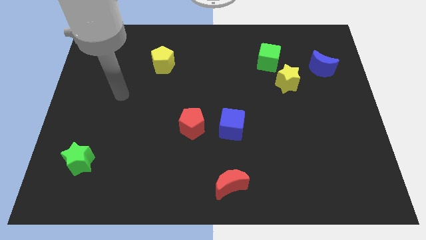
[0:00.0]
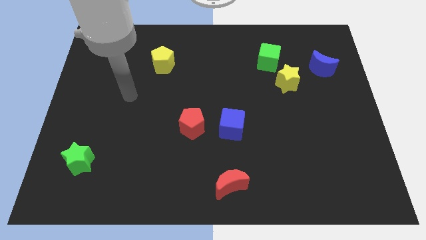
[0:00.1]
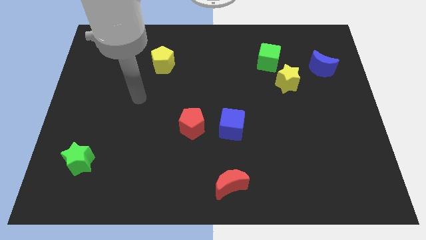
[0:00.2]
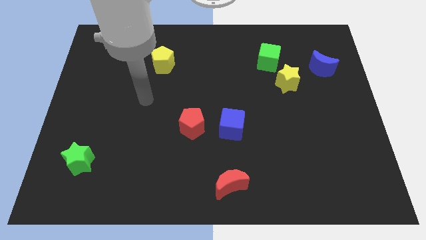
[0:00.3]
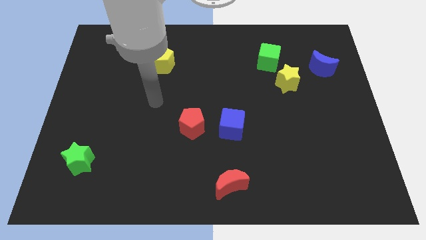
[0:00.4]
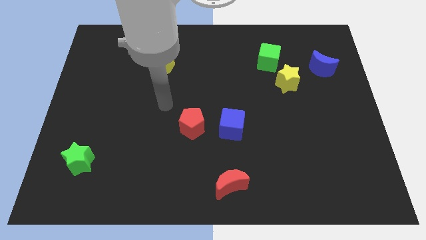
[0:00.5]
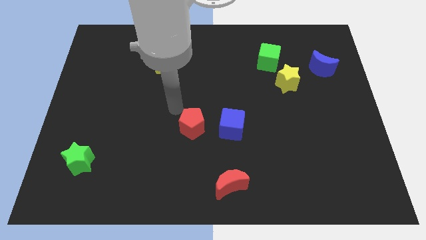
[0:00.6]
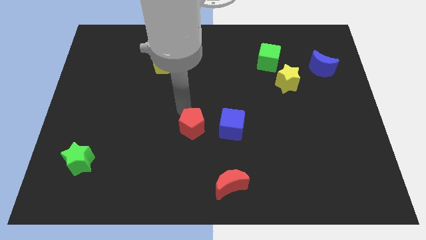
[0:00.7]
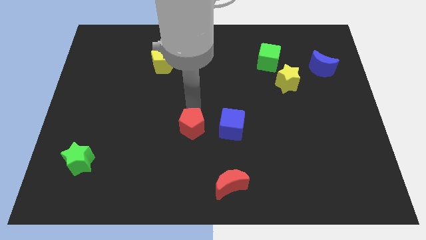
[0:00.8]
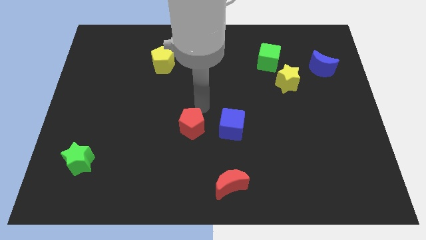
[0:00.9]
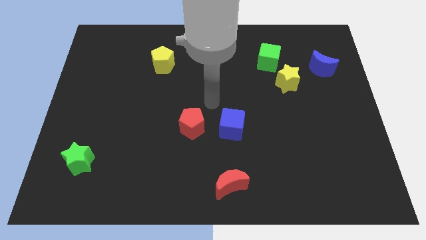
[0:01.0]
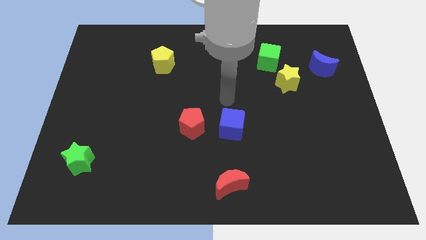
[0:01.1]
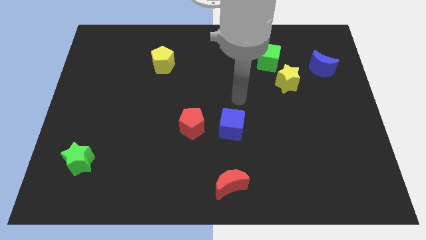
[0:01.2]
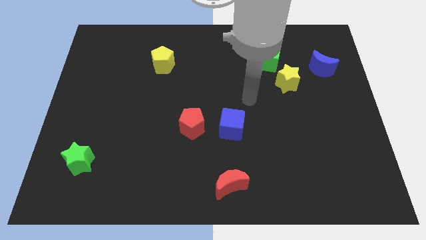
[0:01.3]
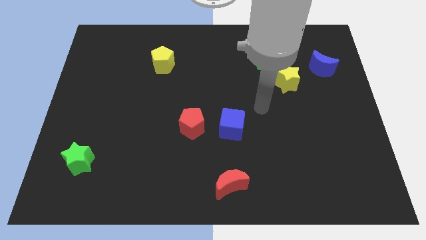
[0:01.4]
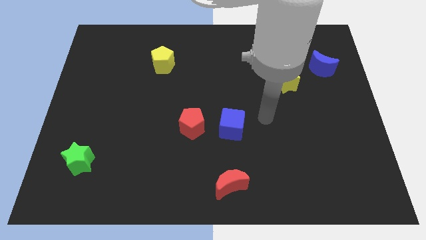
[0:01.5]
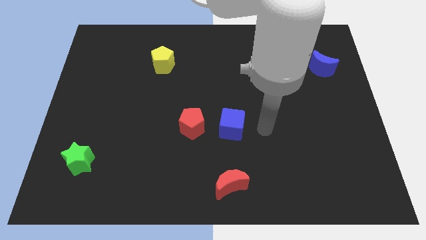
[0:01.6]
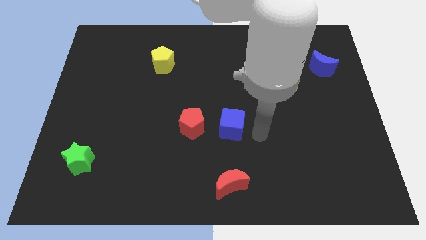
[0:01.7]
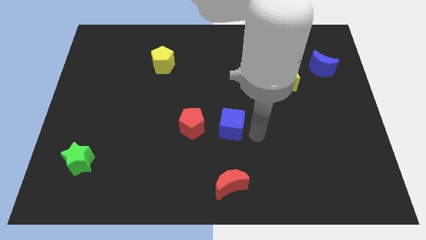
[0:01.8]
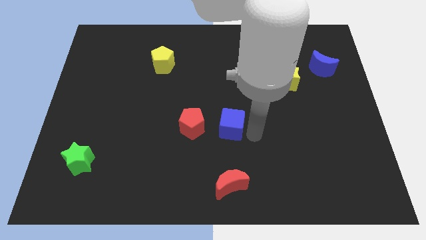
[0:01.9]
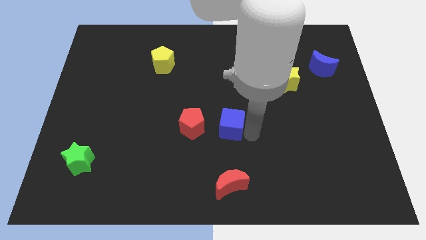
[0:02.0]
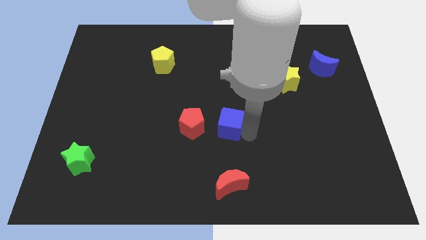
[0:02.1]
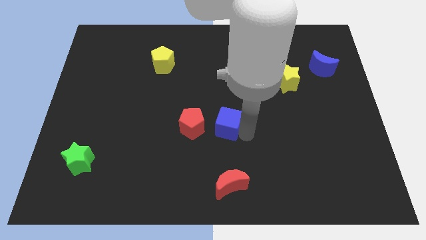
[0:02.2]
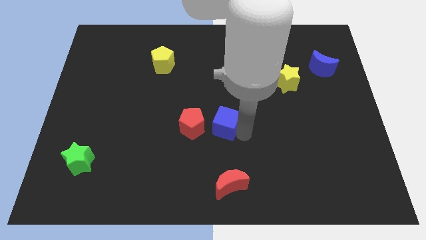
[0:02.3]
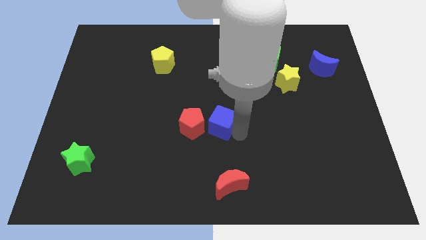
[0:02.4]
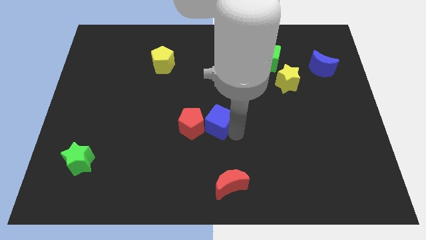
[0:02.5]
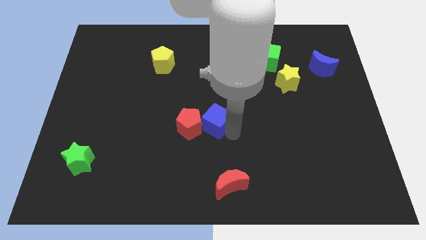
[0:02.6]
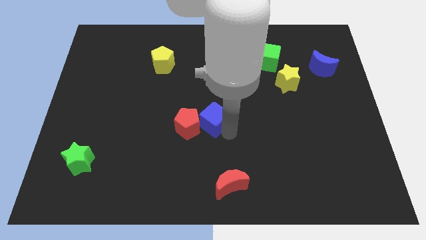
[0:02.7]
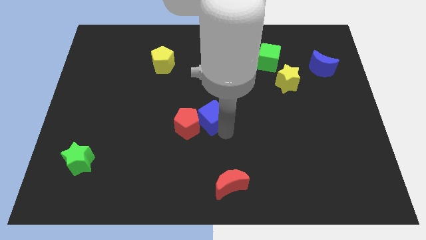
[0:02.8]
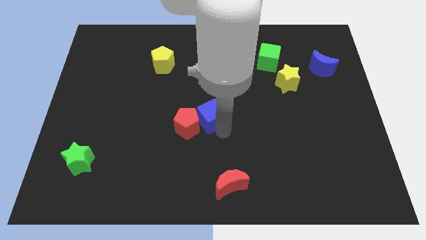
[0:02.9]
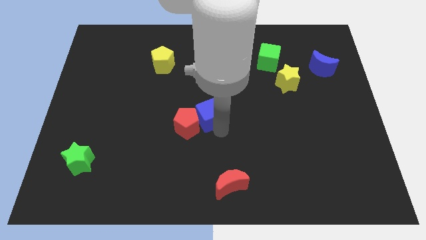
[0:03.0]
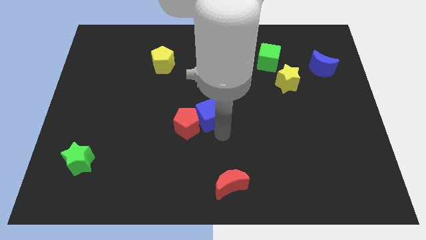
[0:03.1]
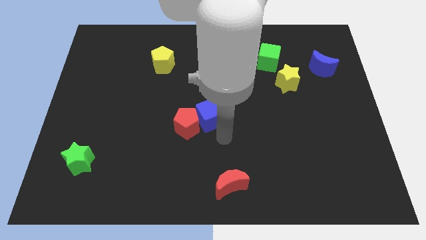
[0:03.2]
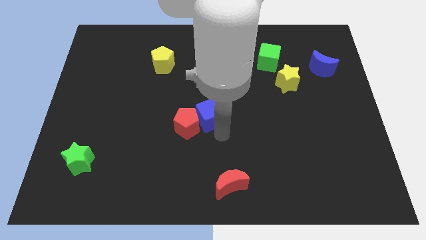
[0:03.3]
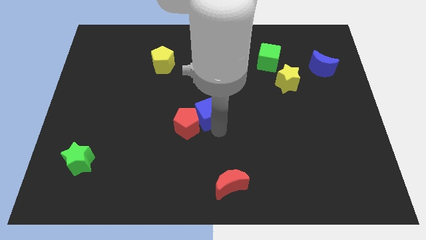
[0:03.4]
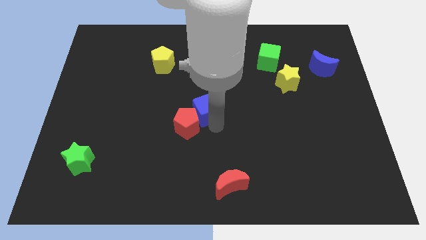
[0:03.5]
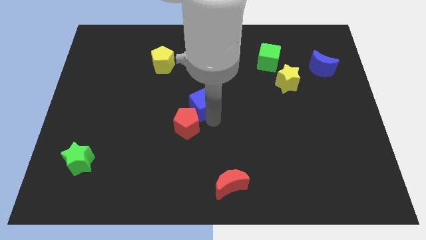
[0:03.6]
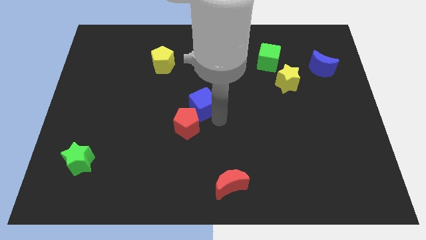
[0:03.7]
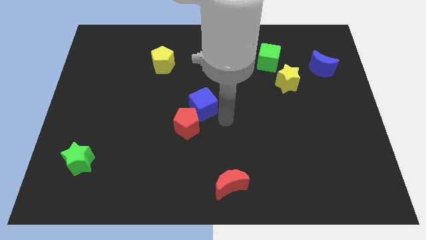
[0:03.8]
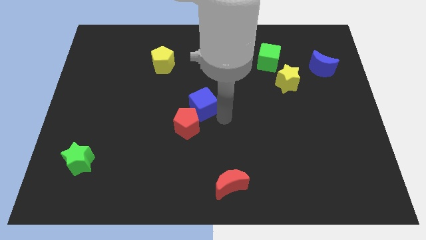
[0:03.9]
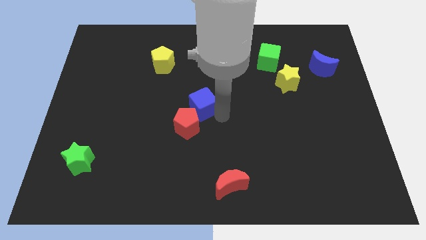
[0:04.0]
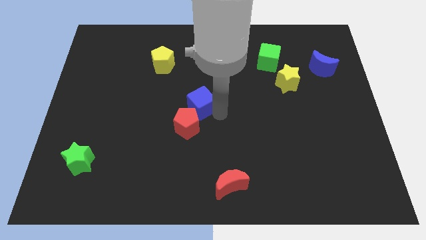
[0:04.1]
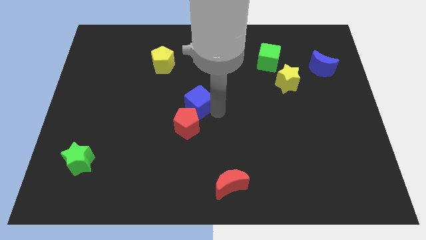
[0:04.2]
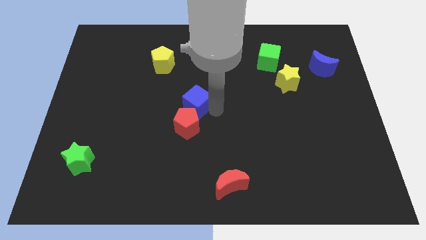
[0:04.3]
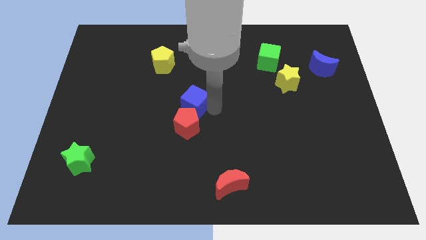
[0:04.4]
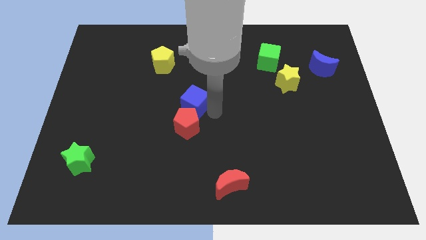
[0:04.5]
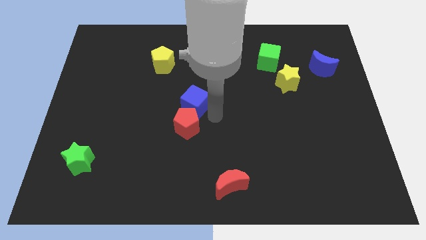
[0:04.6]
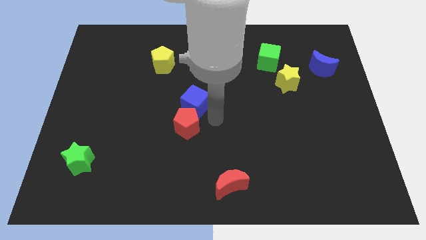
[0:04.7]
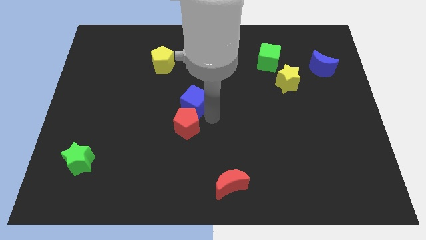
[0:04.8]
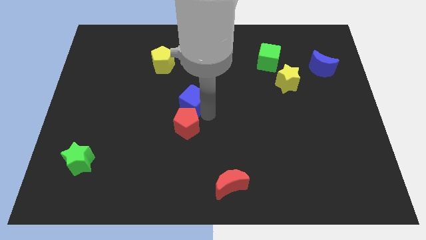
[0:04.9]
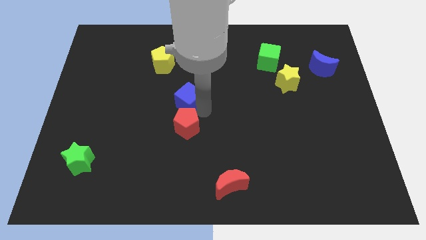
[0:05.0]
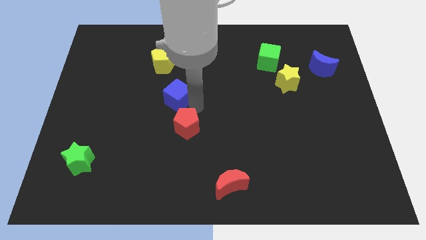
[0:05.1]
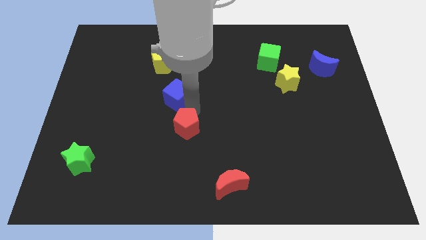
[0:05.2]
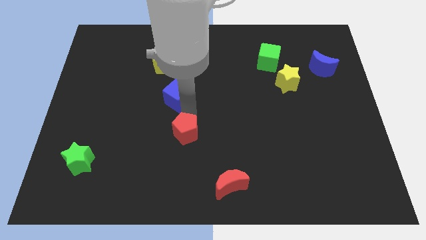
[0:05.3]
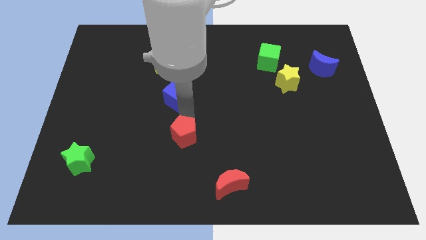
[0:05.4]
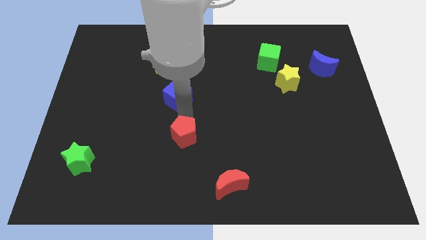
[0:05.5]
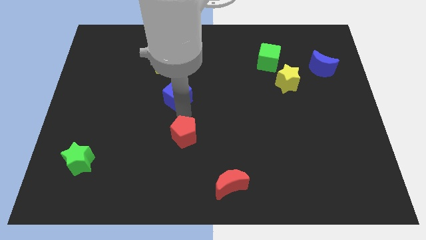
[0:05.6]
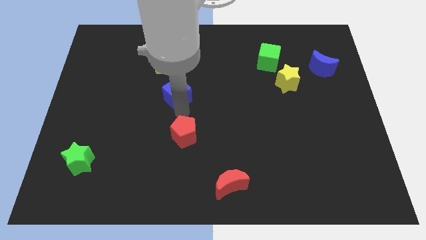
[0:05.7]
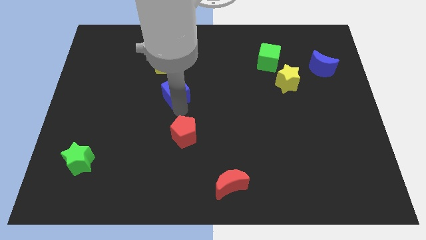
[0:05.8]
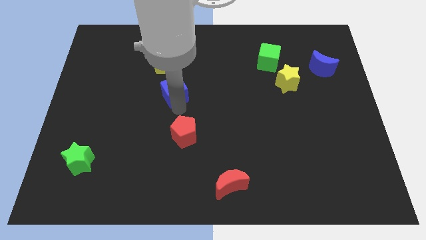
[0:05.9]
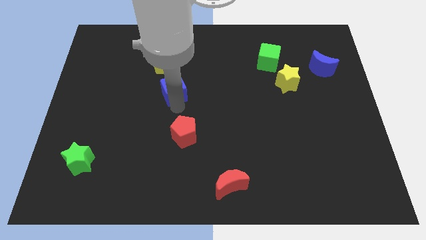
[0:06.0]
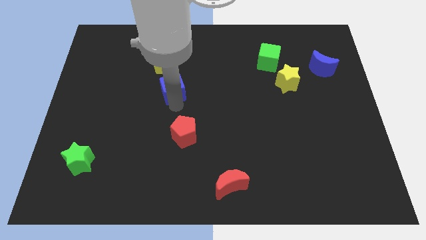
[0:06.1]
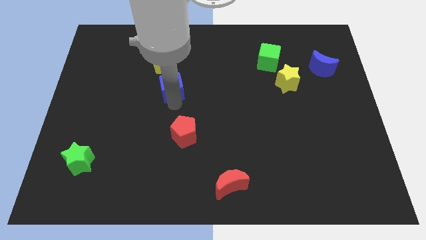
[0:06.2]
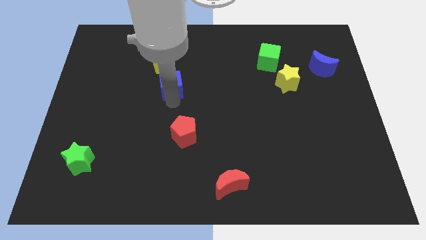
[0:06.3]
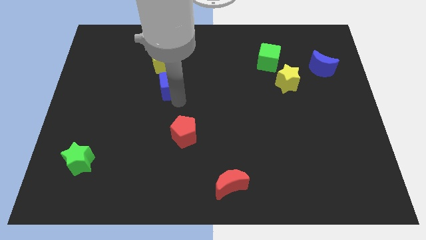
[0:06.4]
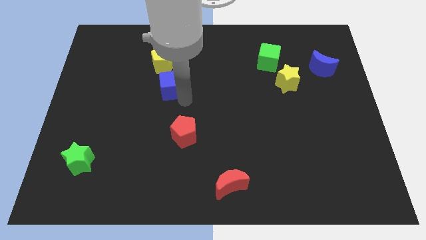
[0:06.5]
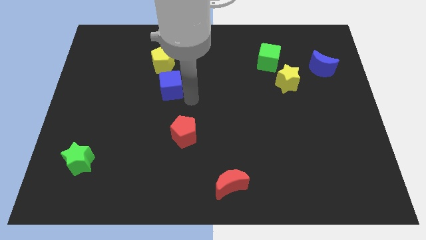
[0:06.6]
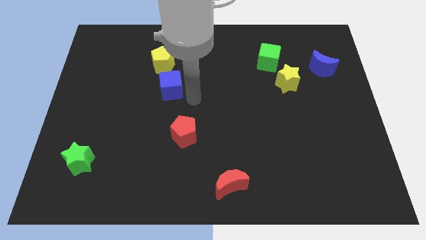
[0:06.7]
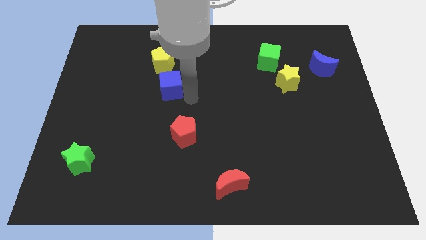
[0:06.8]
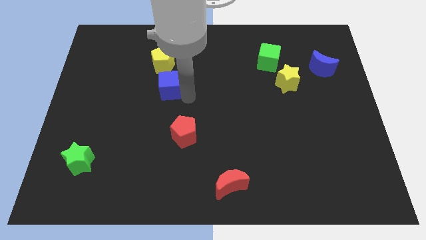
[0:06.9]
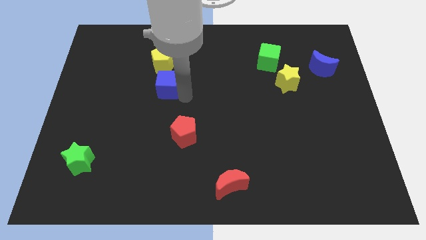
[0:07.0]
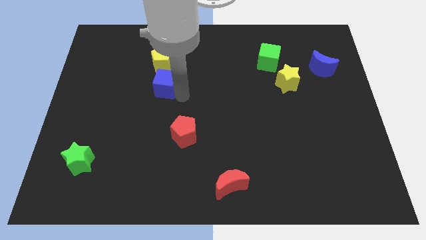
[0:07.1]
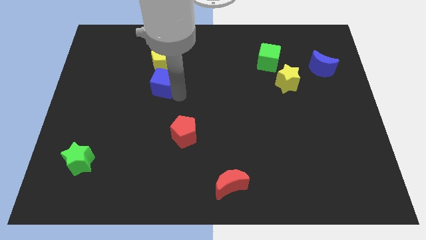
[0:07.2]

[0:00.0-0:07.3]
move the blue cube diagonally up and to the left
